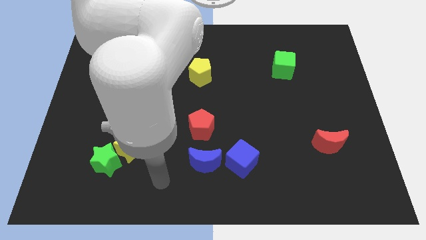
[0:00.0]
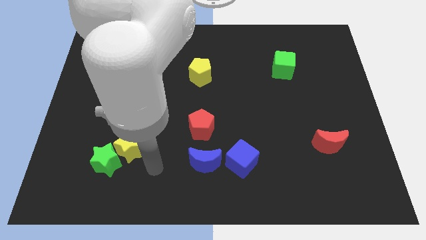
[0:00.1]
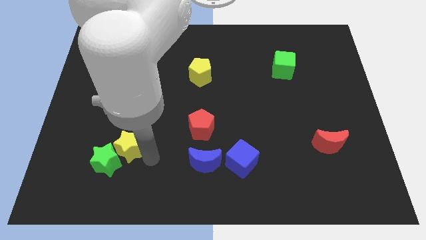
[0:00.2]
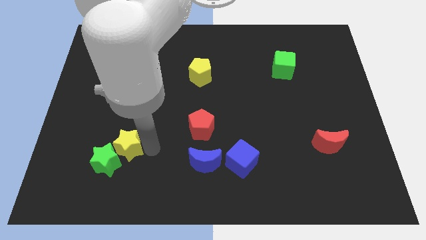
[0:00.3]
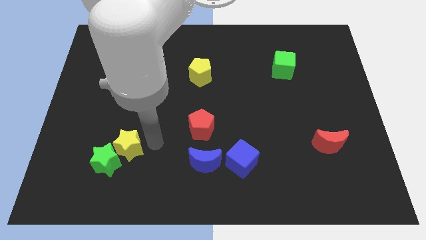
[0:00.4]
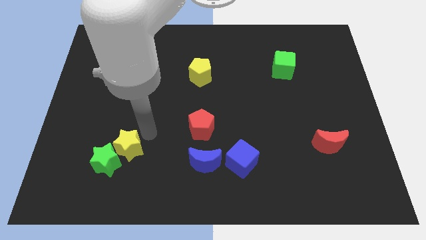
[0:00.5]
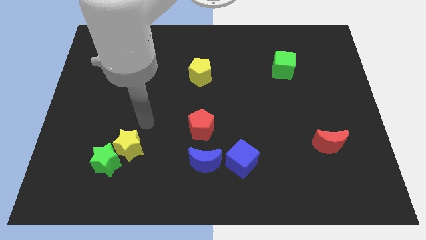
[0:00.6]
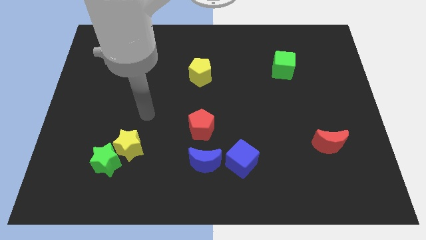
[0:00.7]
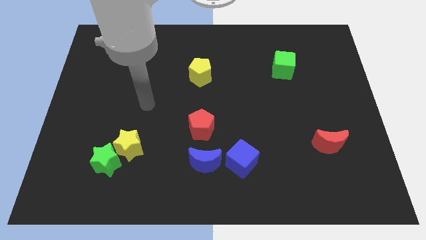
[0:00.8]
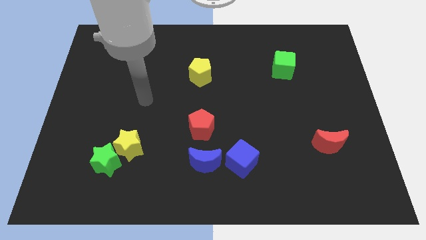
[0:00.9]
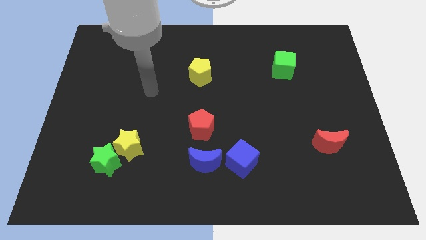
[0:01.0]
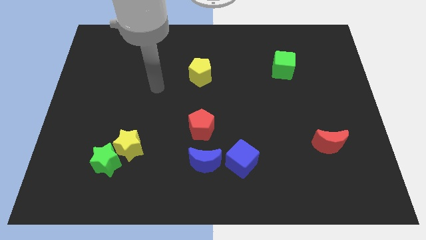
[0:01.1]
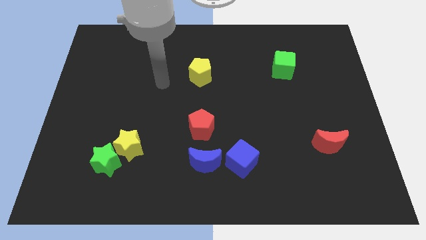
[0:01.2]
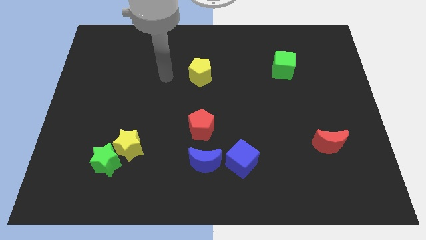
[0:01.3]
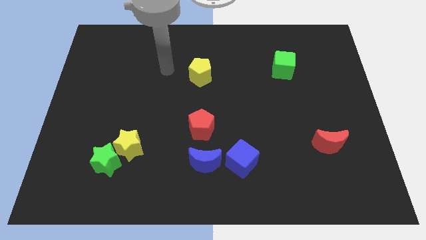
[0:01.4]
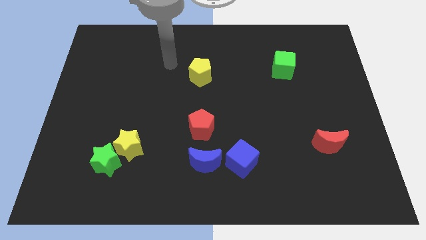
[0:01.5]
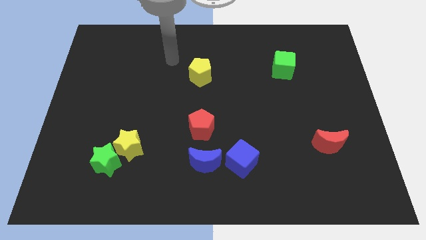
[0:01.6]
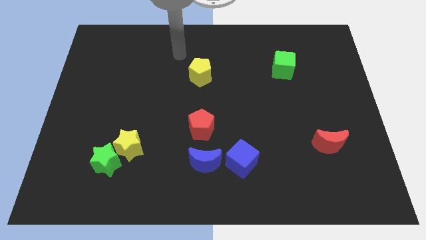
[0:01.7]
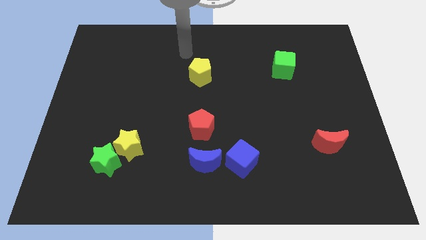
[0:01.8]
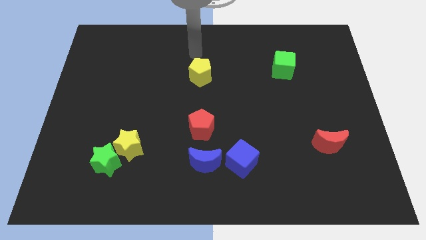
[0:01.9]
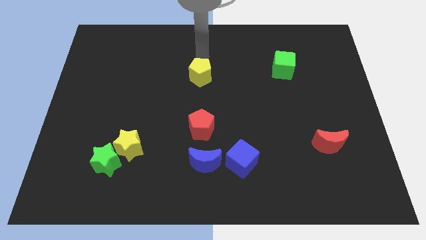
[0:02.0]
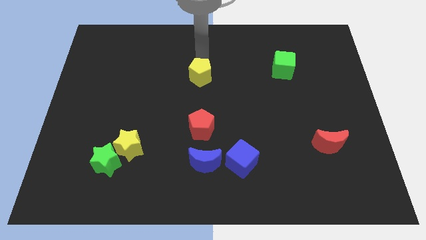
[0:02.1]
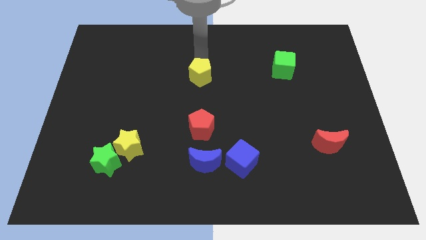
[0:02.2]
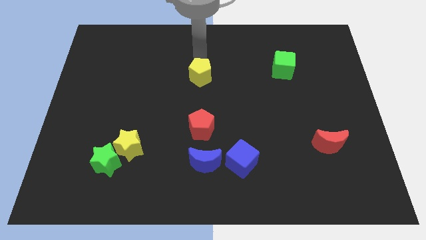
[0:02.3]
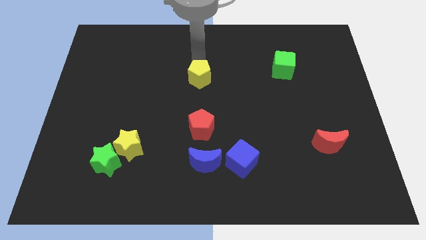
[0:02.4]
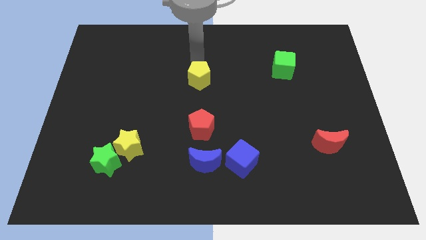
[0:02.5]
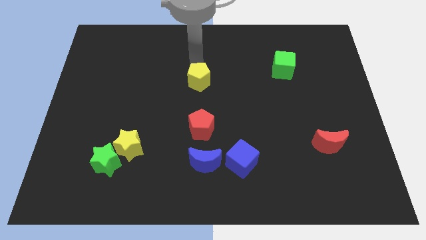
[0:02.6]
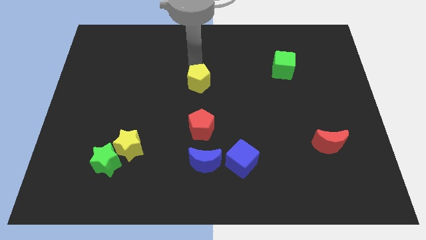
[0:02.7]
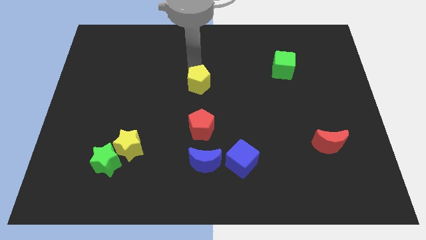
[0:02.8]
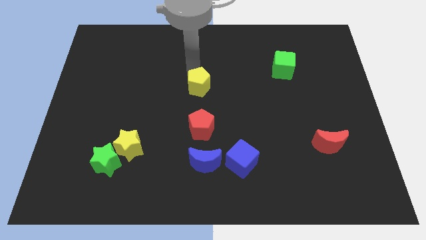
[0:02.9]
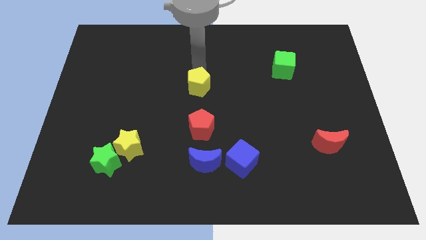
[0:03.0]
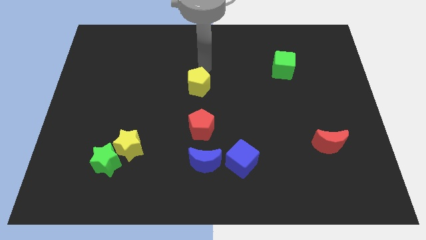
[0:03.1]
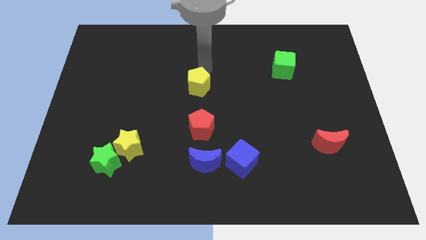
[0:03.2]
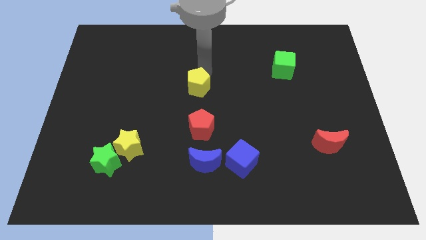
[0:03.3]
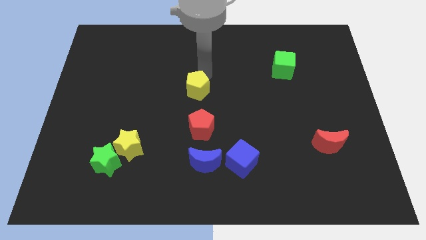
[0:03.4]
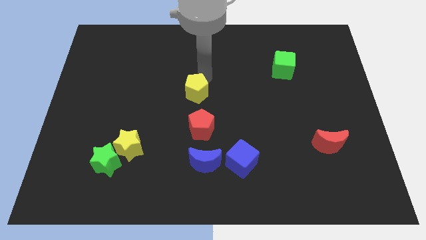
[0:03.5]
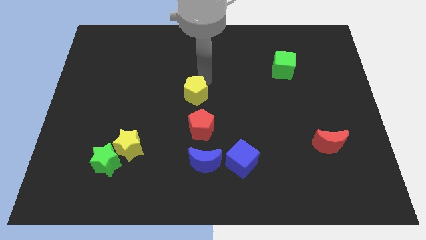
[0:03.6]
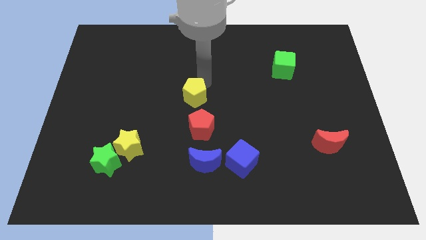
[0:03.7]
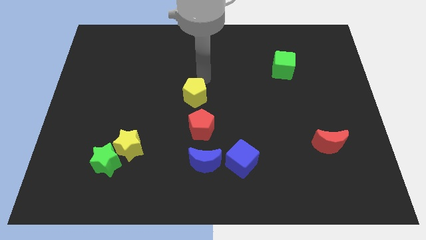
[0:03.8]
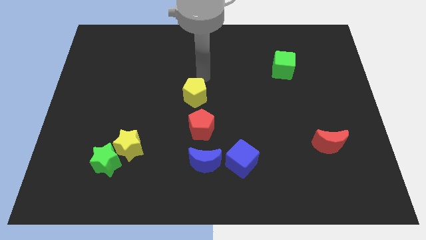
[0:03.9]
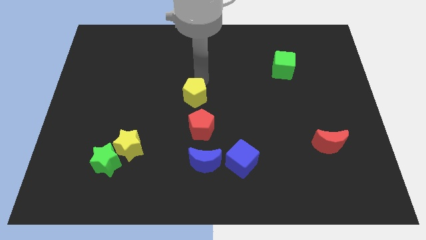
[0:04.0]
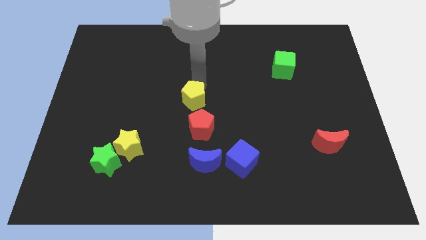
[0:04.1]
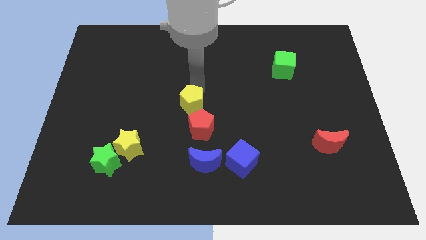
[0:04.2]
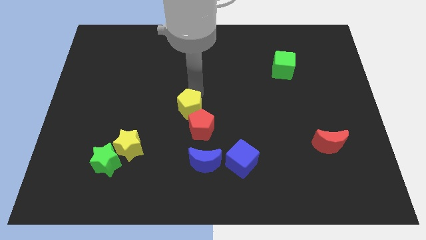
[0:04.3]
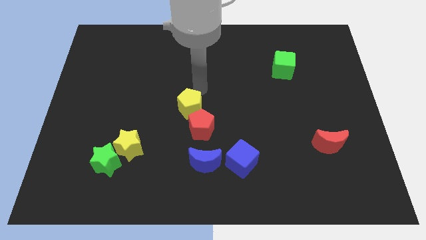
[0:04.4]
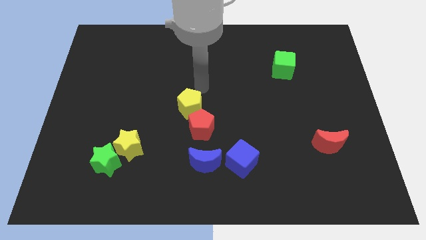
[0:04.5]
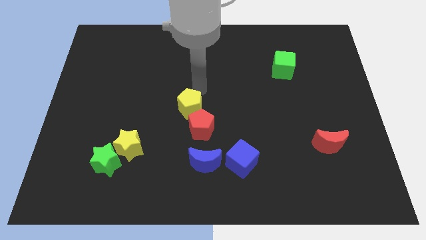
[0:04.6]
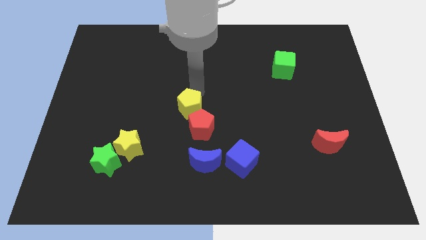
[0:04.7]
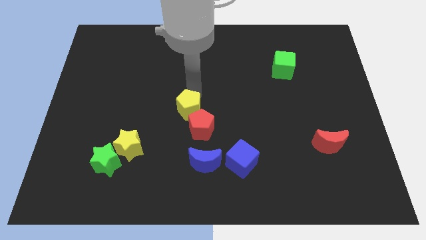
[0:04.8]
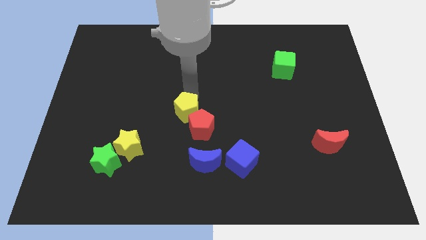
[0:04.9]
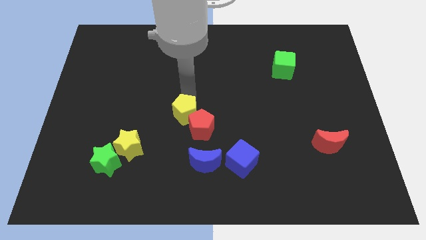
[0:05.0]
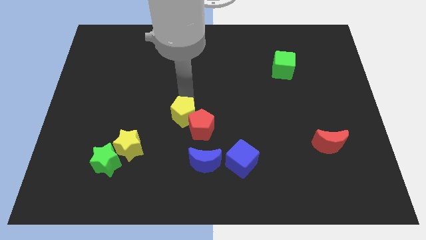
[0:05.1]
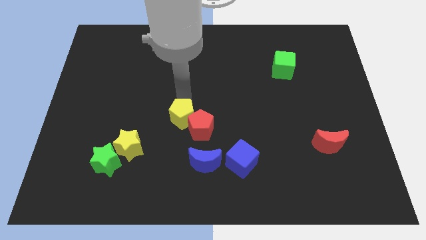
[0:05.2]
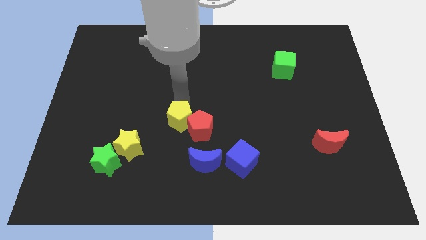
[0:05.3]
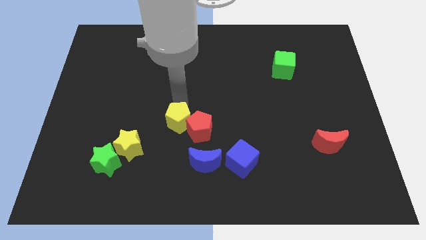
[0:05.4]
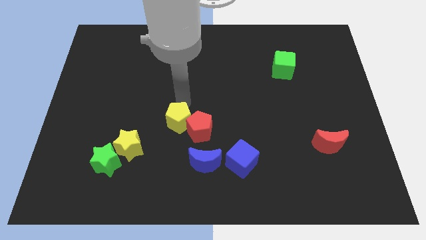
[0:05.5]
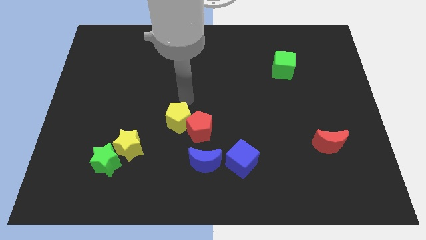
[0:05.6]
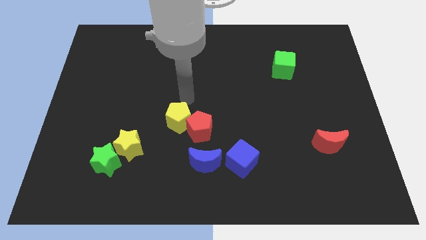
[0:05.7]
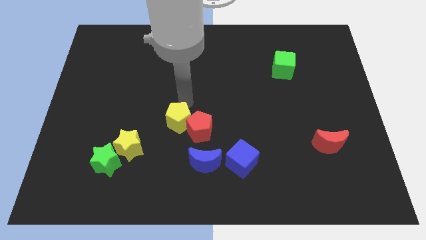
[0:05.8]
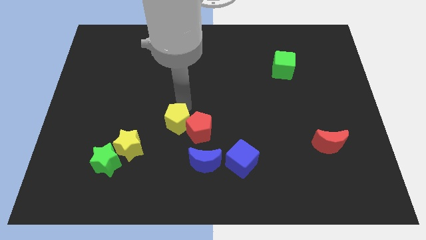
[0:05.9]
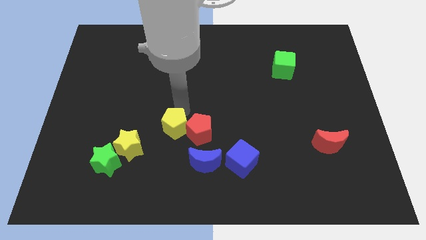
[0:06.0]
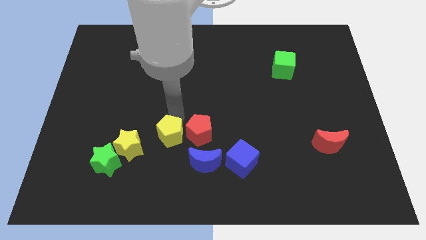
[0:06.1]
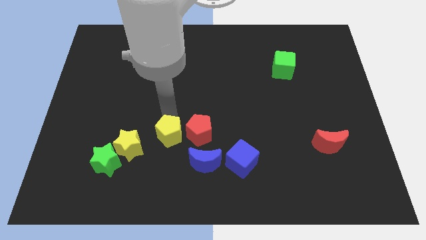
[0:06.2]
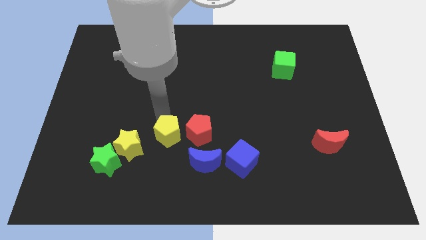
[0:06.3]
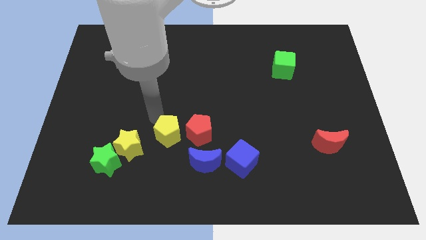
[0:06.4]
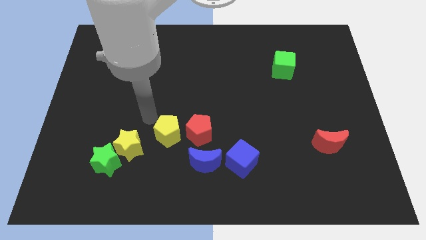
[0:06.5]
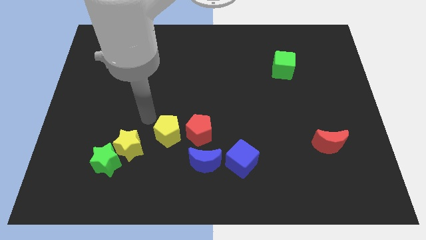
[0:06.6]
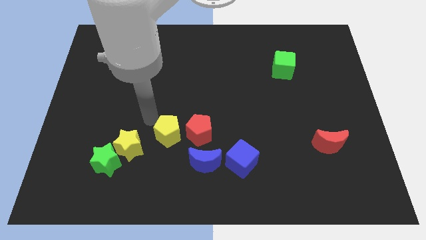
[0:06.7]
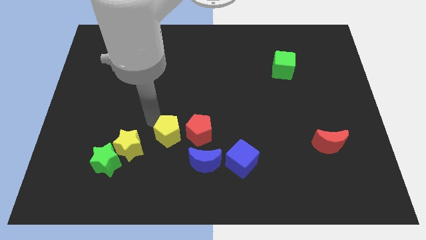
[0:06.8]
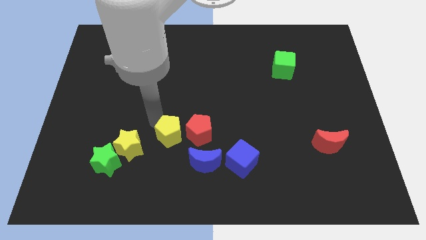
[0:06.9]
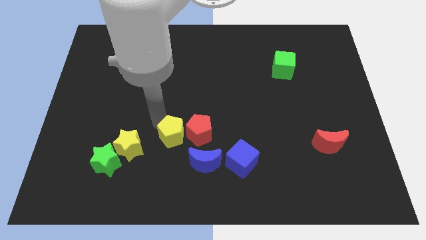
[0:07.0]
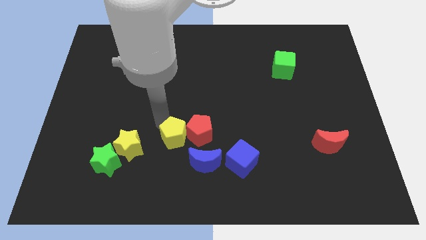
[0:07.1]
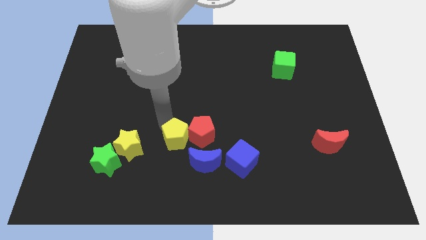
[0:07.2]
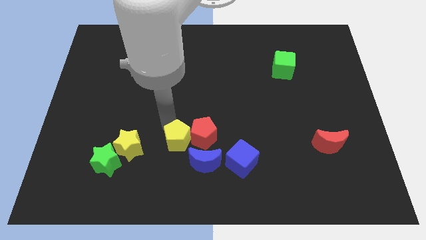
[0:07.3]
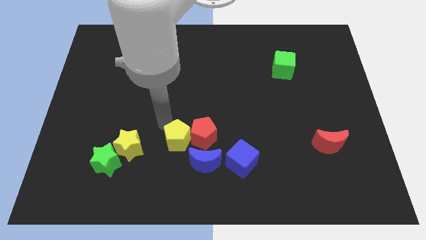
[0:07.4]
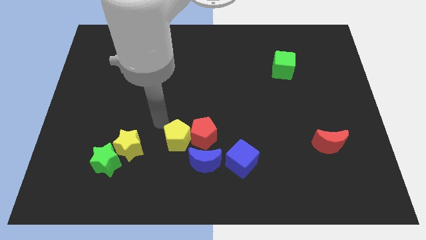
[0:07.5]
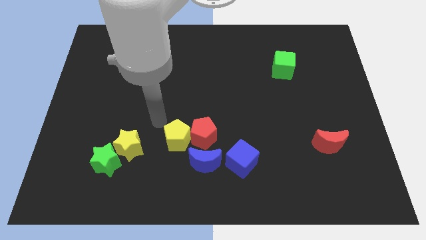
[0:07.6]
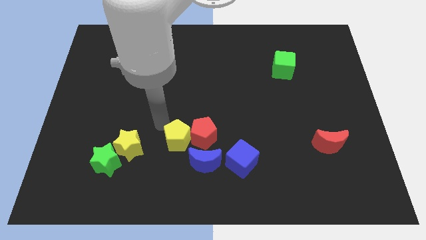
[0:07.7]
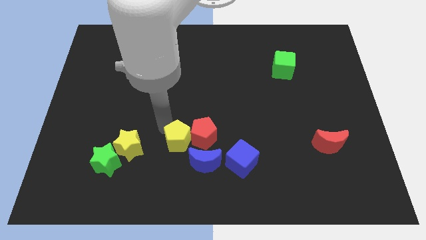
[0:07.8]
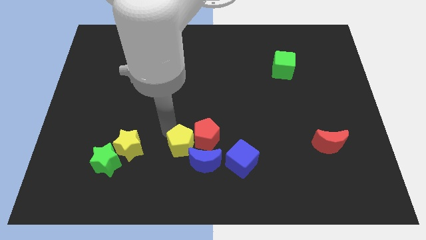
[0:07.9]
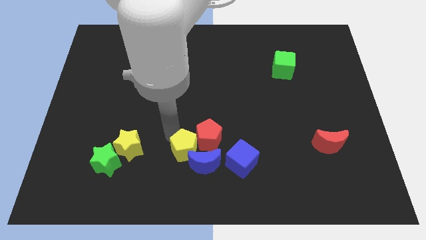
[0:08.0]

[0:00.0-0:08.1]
slide the yellow pentagon next to the blue moon

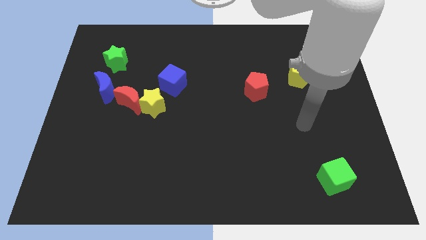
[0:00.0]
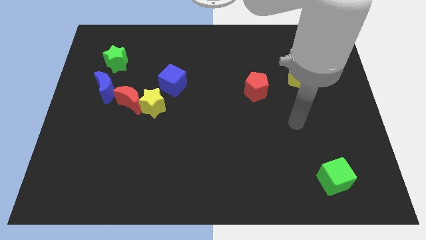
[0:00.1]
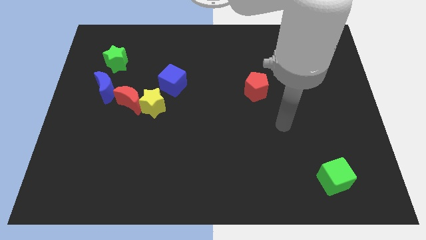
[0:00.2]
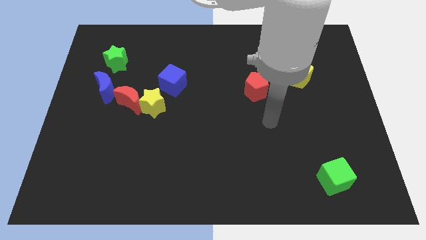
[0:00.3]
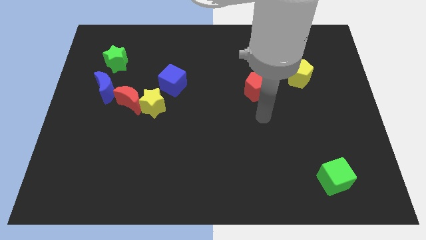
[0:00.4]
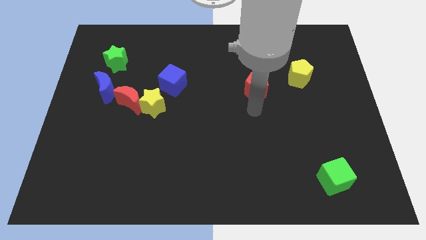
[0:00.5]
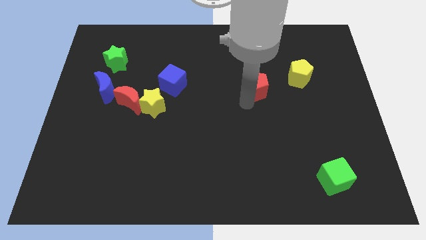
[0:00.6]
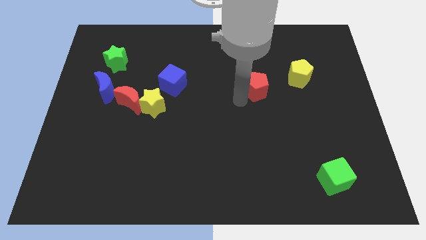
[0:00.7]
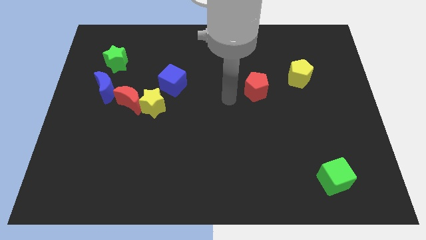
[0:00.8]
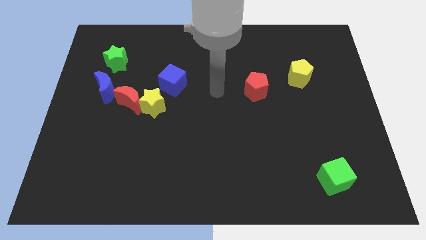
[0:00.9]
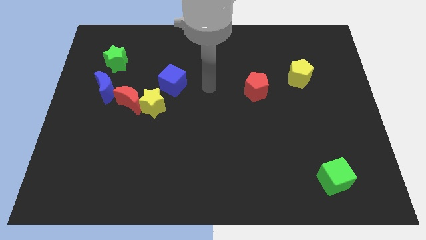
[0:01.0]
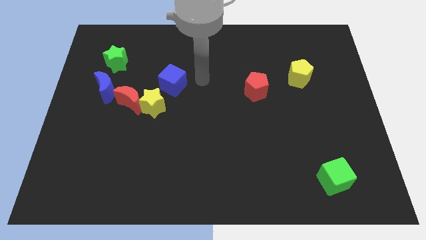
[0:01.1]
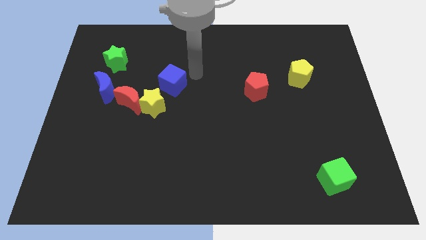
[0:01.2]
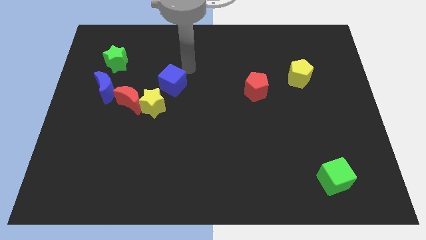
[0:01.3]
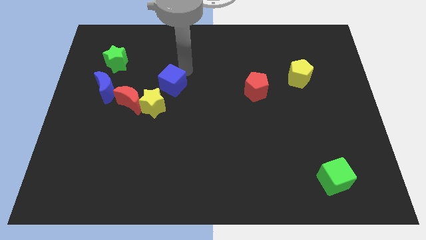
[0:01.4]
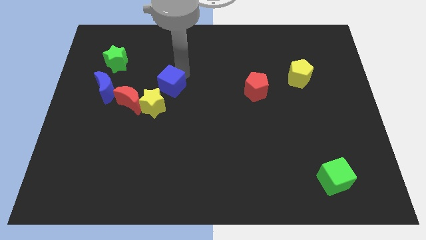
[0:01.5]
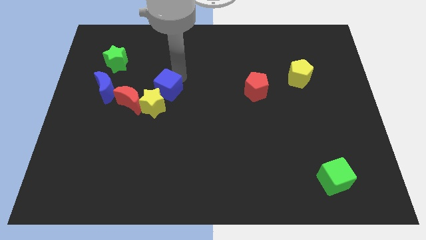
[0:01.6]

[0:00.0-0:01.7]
slide the blue cube to the yellow star
